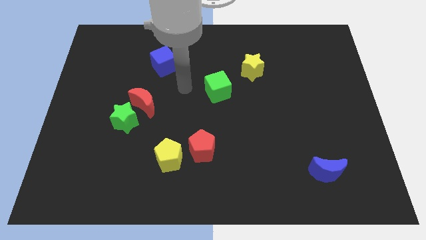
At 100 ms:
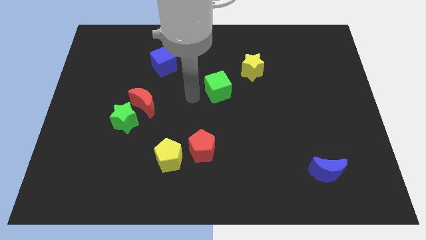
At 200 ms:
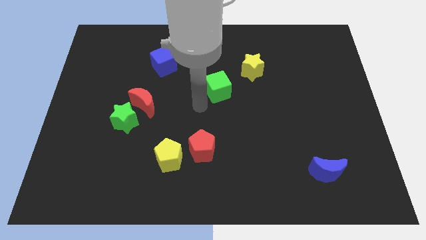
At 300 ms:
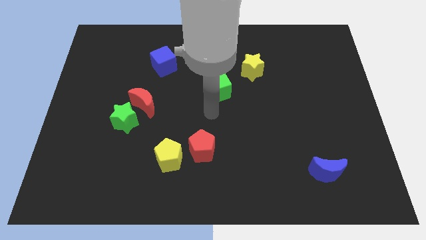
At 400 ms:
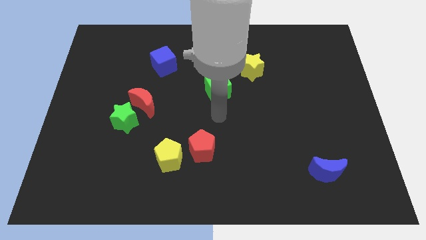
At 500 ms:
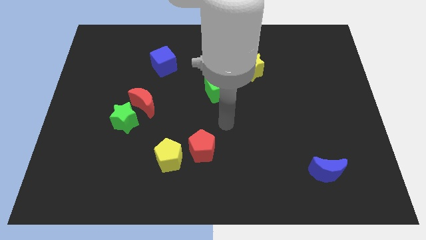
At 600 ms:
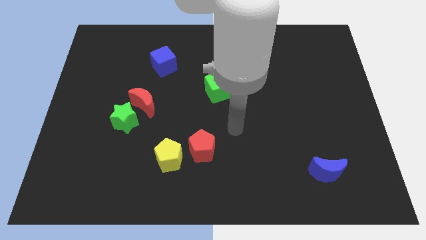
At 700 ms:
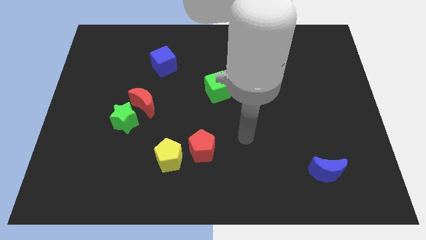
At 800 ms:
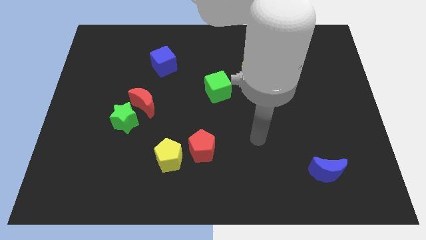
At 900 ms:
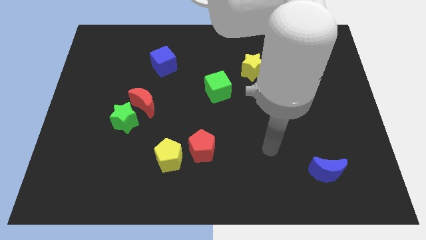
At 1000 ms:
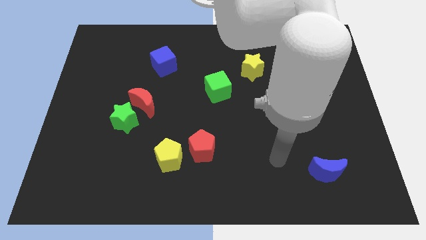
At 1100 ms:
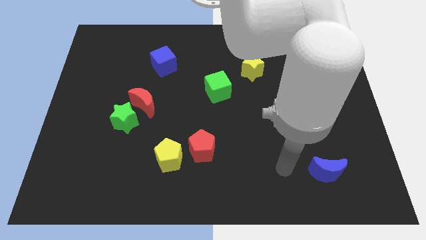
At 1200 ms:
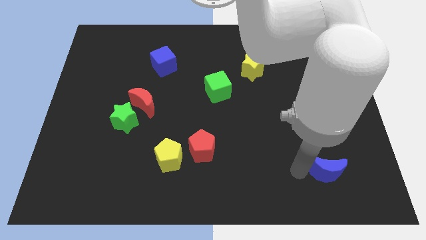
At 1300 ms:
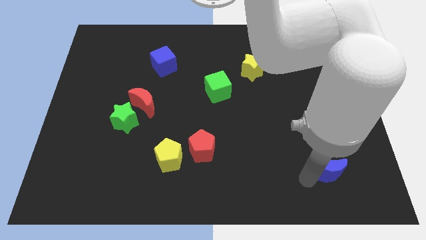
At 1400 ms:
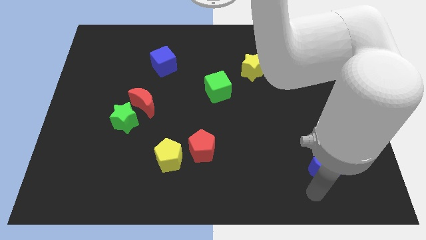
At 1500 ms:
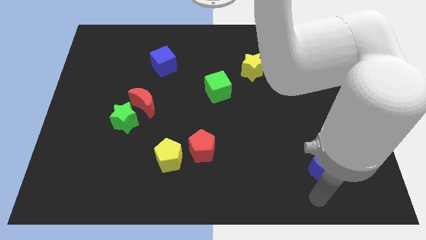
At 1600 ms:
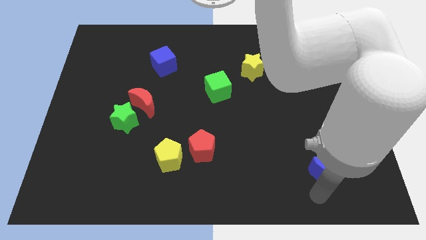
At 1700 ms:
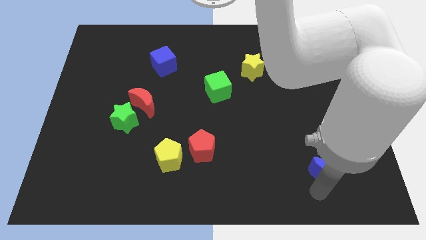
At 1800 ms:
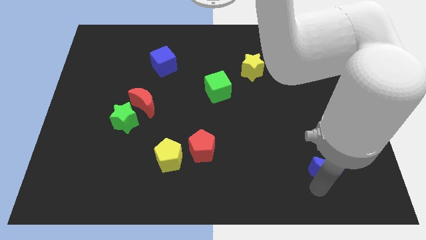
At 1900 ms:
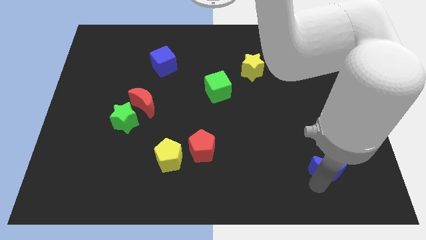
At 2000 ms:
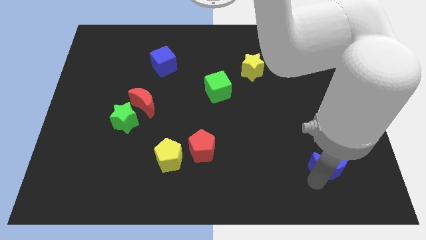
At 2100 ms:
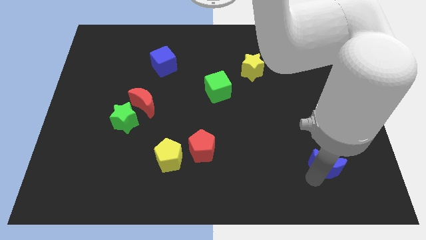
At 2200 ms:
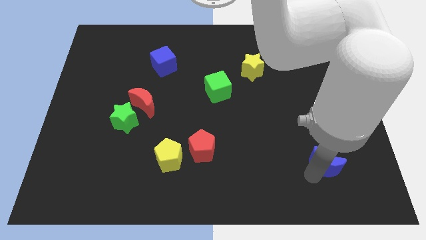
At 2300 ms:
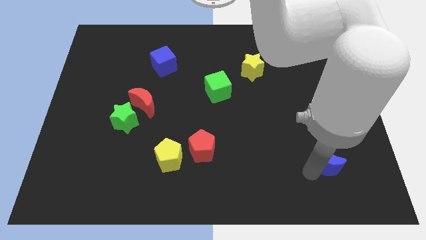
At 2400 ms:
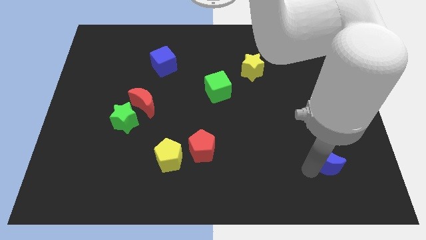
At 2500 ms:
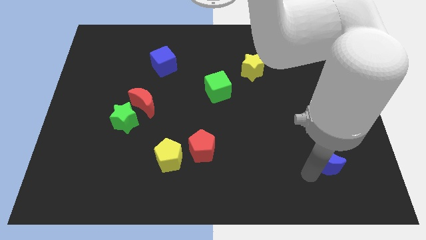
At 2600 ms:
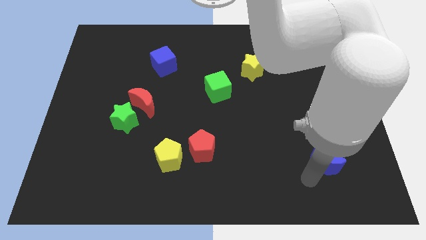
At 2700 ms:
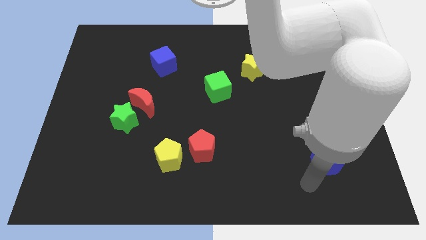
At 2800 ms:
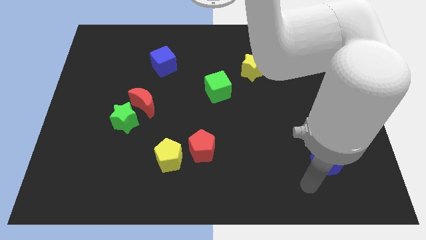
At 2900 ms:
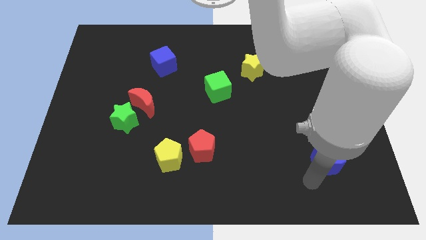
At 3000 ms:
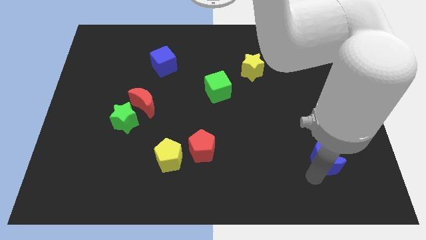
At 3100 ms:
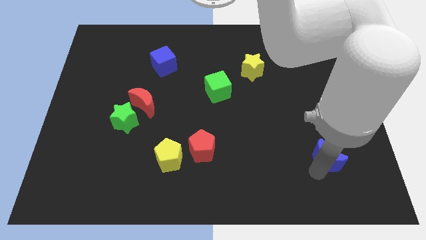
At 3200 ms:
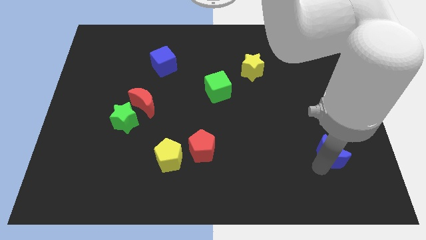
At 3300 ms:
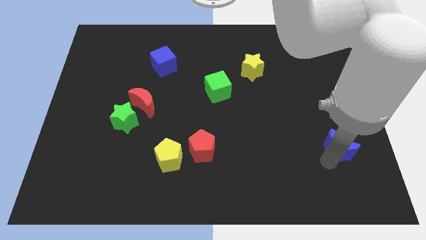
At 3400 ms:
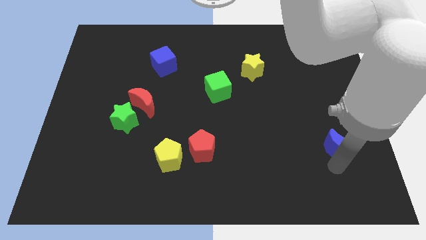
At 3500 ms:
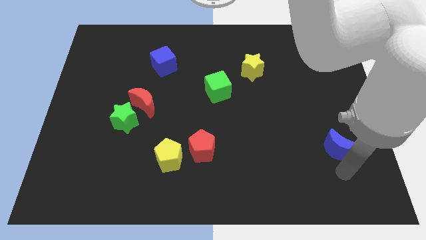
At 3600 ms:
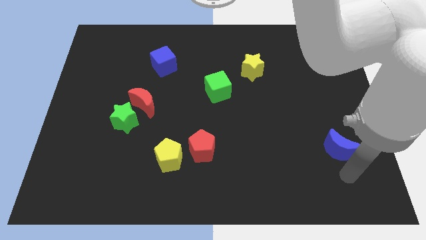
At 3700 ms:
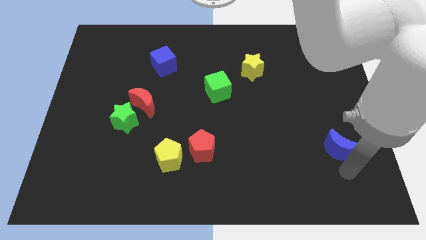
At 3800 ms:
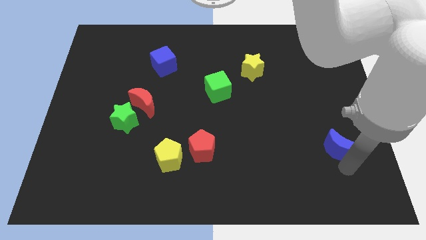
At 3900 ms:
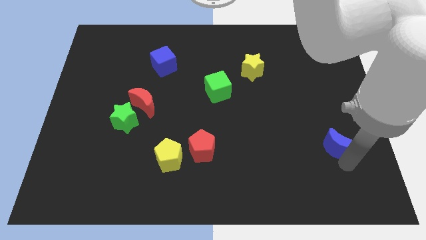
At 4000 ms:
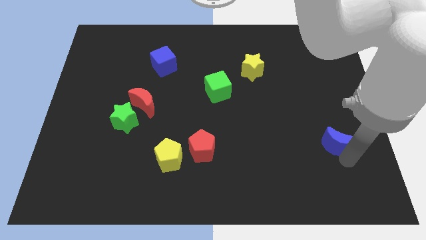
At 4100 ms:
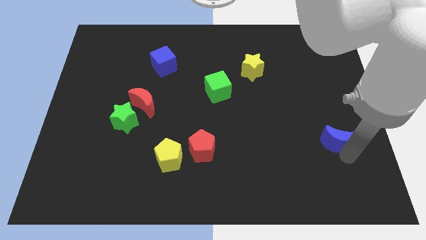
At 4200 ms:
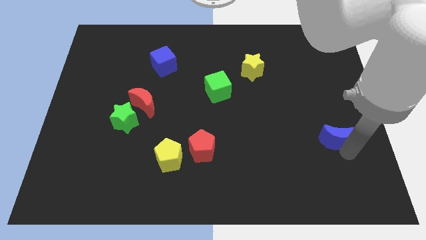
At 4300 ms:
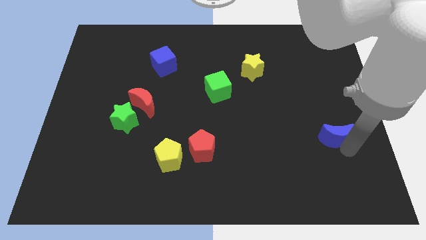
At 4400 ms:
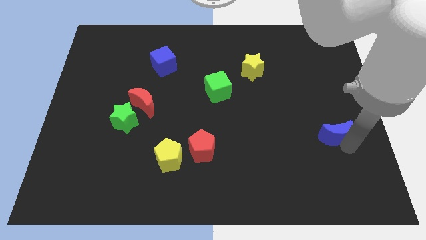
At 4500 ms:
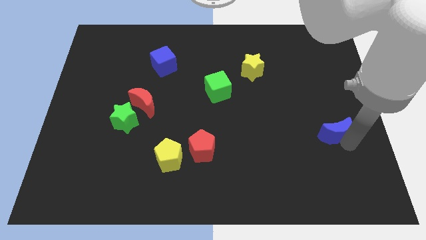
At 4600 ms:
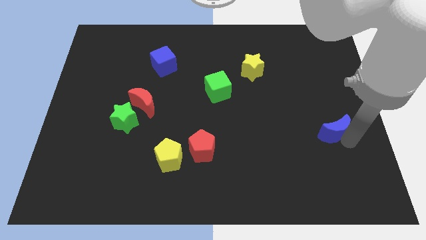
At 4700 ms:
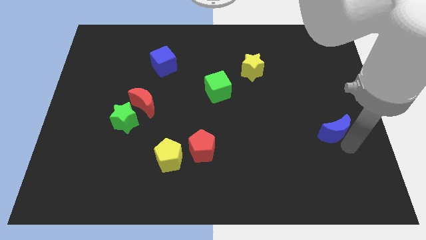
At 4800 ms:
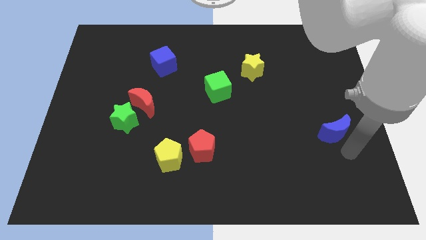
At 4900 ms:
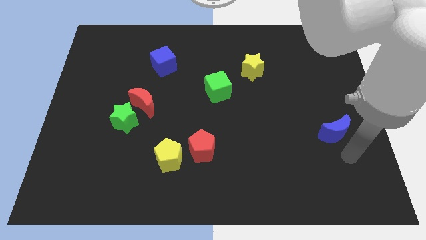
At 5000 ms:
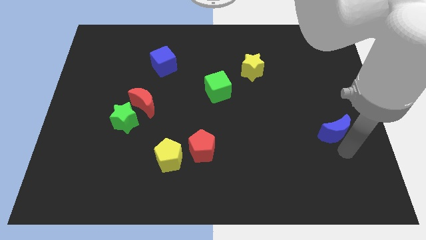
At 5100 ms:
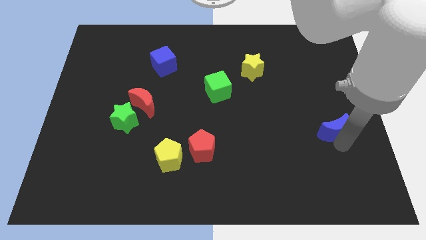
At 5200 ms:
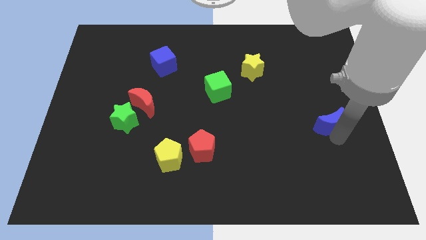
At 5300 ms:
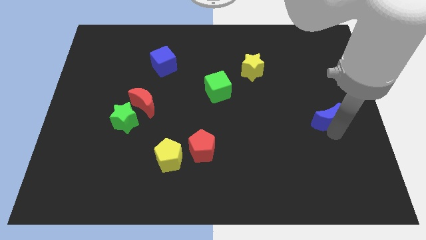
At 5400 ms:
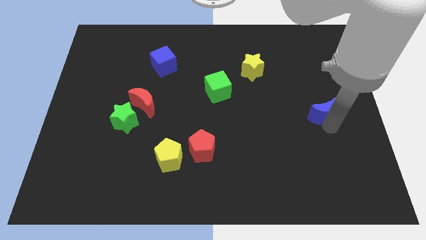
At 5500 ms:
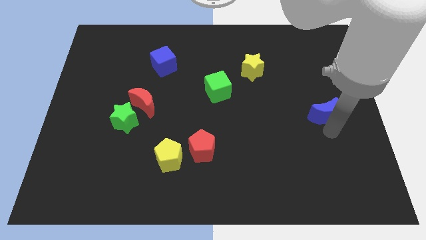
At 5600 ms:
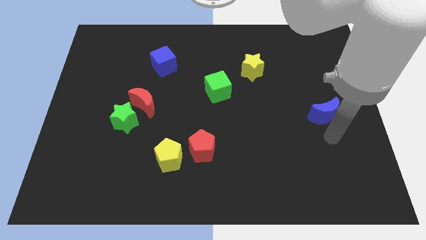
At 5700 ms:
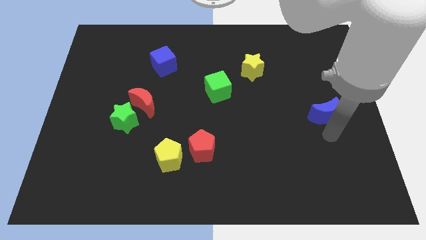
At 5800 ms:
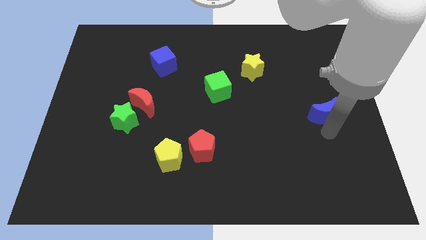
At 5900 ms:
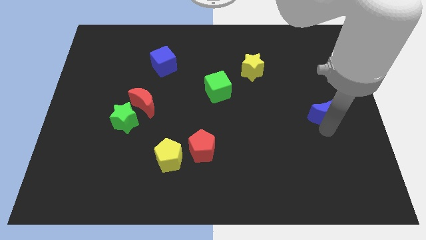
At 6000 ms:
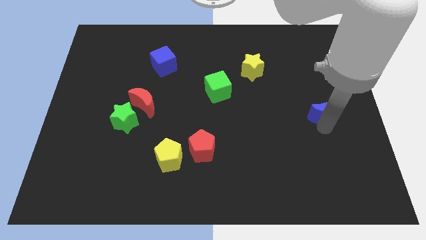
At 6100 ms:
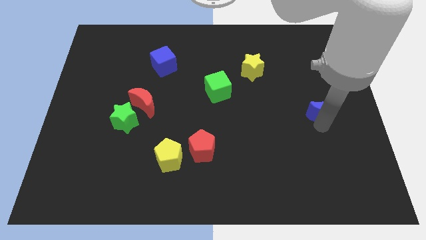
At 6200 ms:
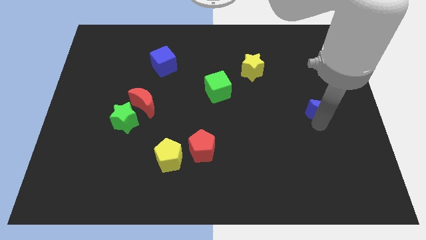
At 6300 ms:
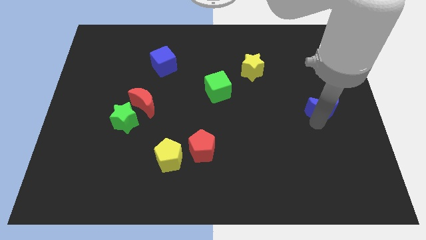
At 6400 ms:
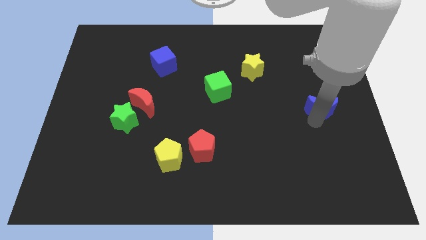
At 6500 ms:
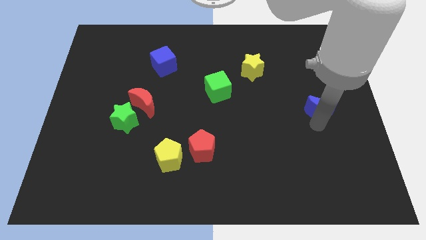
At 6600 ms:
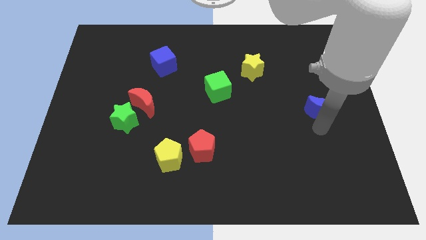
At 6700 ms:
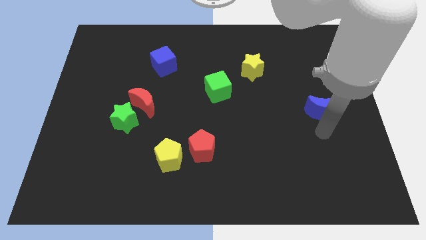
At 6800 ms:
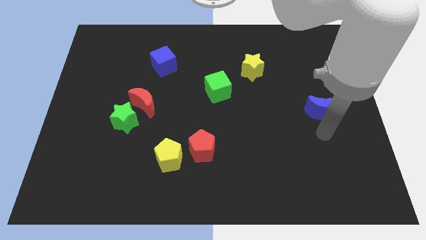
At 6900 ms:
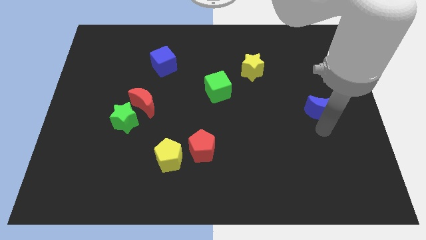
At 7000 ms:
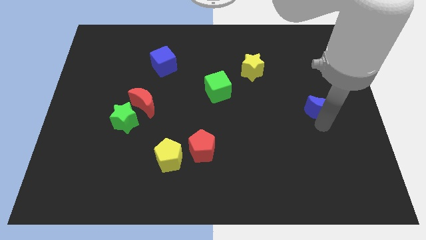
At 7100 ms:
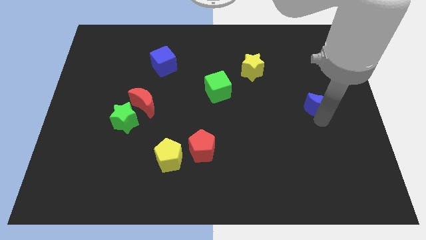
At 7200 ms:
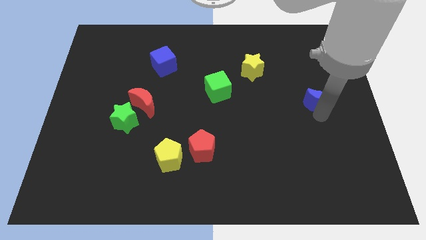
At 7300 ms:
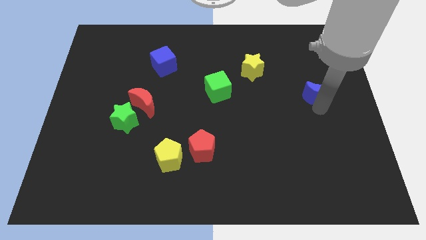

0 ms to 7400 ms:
slide the blue moon upwards

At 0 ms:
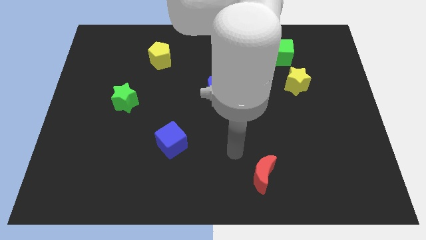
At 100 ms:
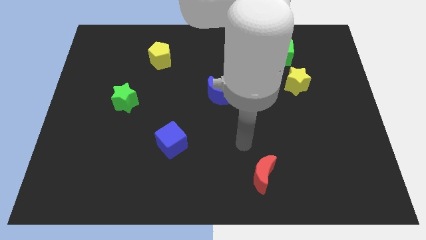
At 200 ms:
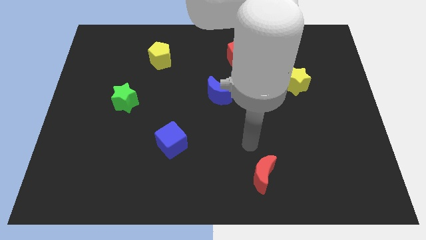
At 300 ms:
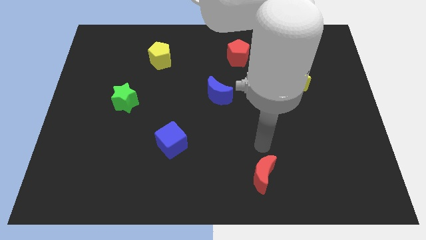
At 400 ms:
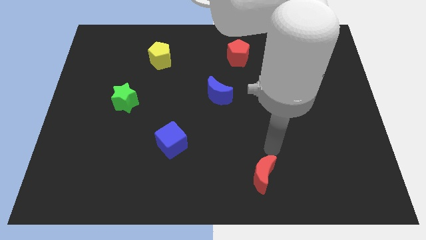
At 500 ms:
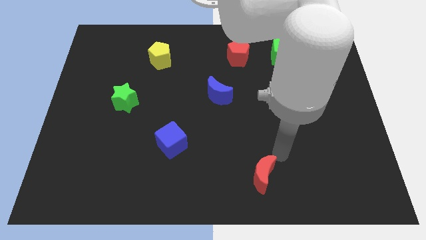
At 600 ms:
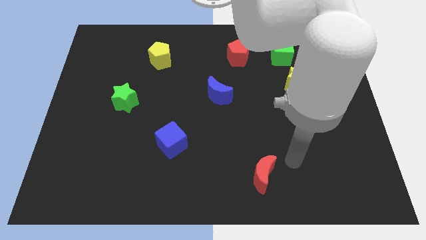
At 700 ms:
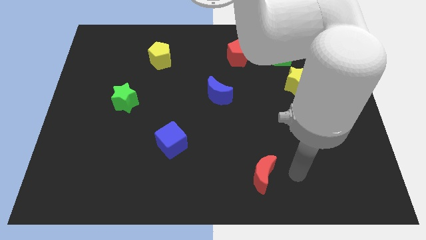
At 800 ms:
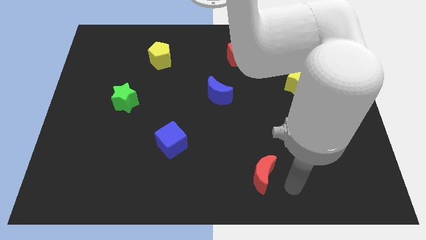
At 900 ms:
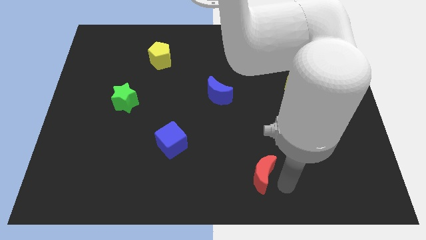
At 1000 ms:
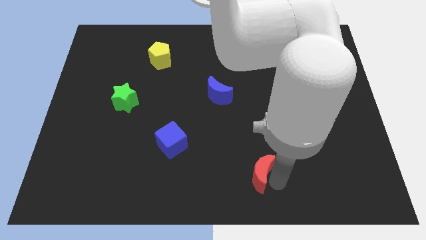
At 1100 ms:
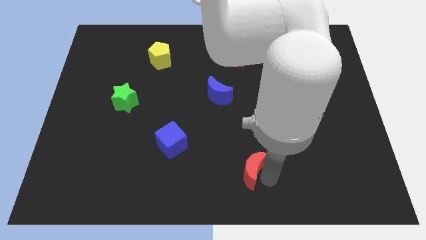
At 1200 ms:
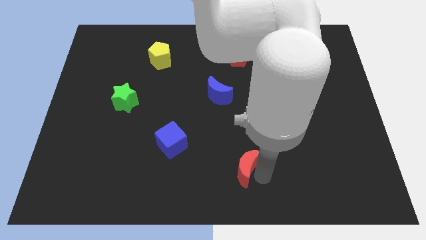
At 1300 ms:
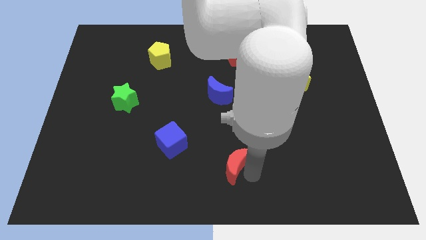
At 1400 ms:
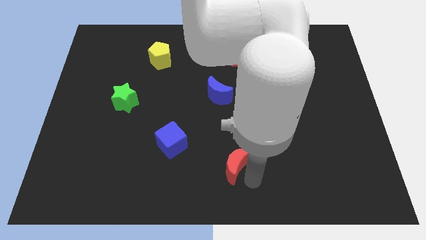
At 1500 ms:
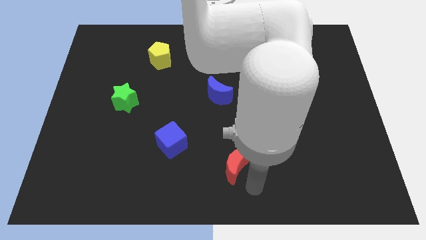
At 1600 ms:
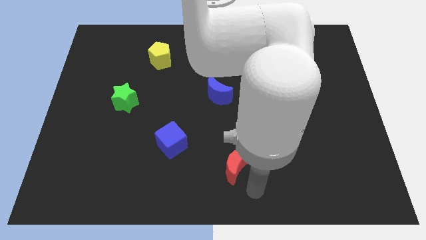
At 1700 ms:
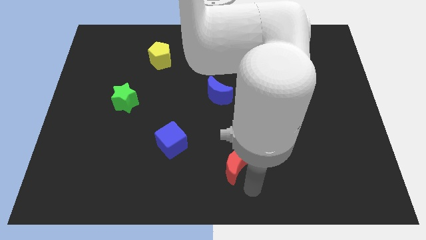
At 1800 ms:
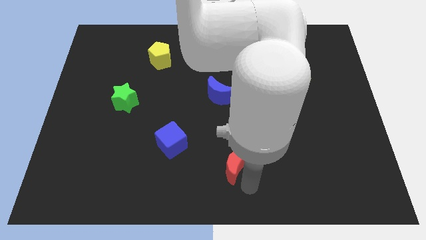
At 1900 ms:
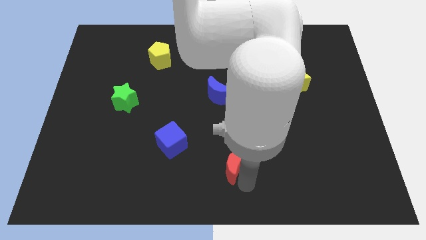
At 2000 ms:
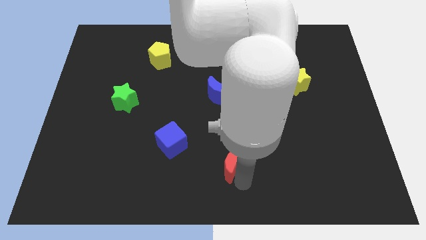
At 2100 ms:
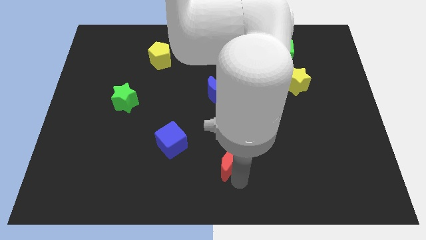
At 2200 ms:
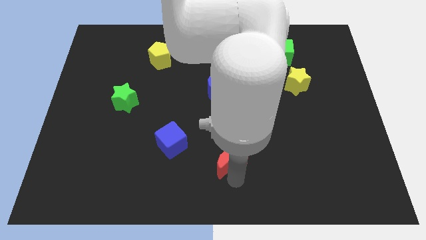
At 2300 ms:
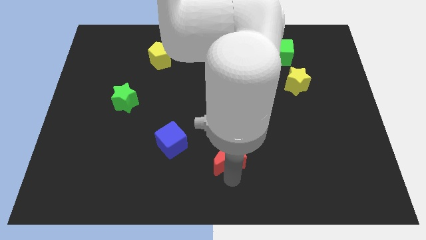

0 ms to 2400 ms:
move the red moon somewhat diagonally up and left
